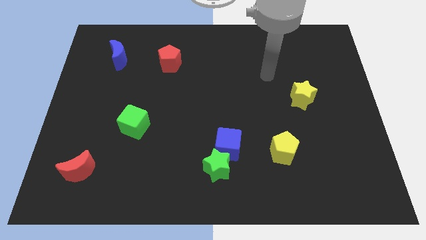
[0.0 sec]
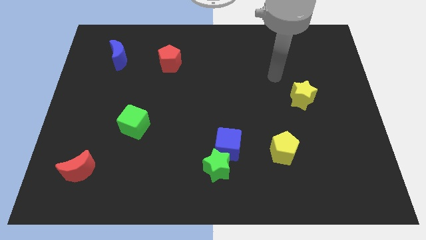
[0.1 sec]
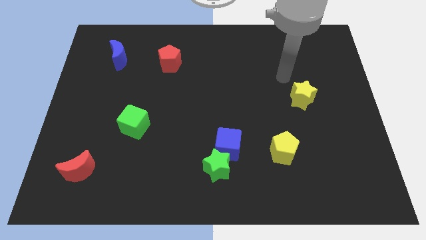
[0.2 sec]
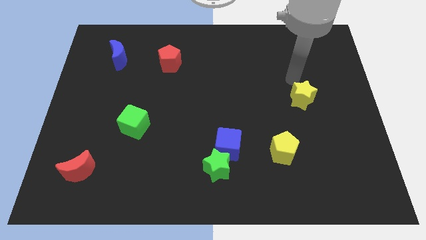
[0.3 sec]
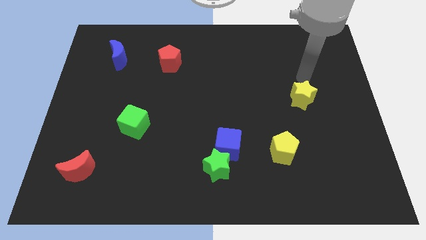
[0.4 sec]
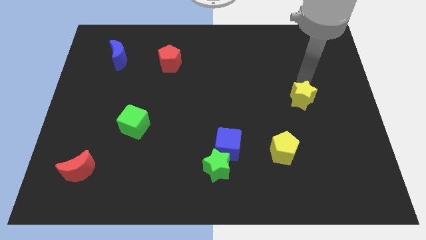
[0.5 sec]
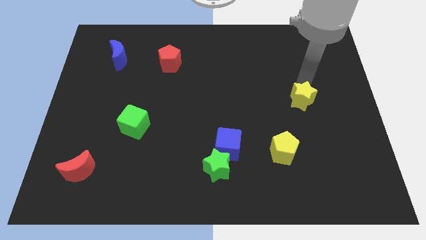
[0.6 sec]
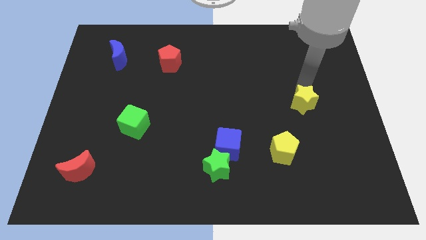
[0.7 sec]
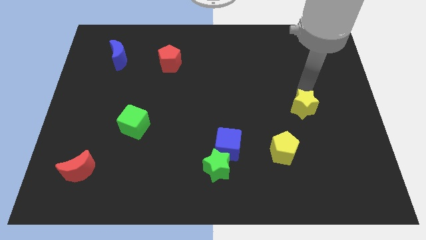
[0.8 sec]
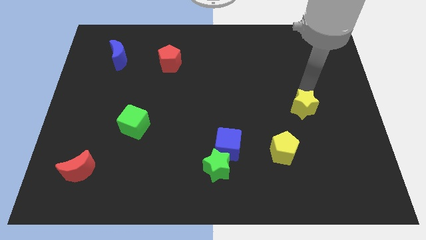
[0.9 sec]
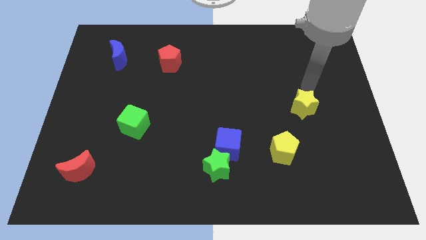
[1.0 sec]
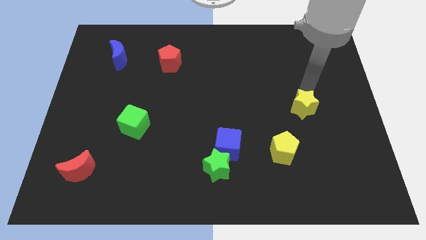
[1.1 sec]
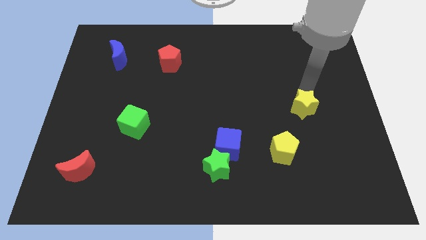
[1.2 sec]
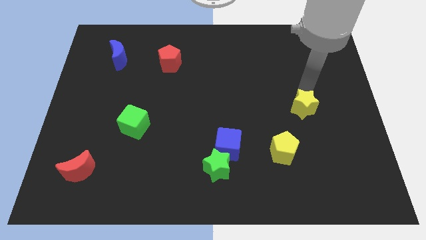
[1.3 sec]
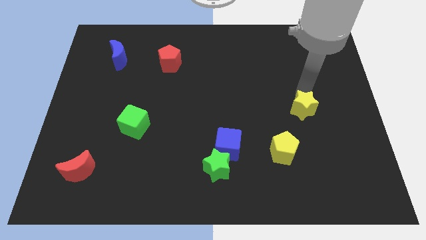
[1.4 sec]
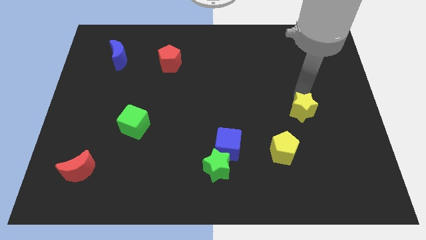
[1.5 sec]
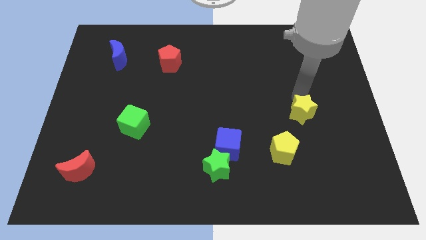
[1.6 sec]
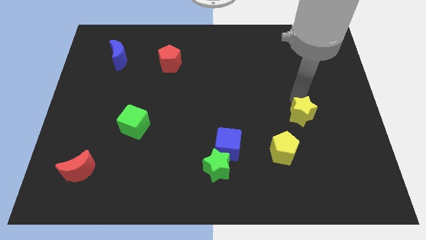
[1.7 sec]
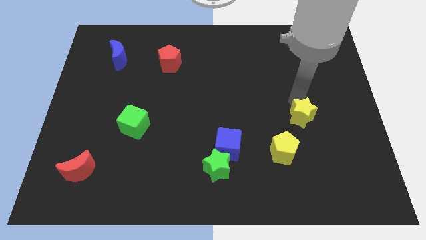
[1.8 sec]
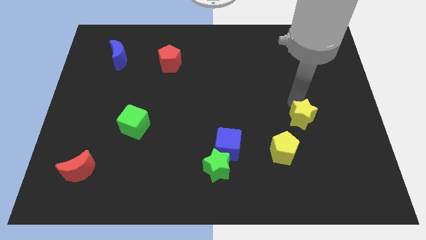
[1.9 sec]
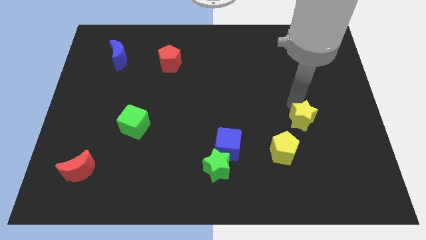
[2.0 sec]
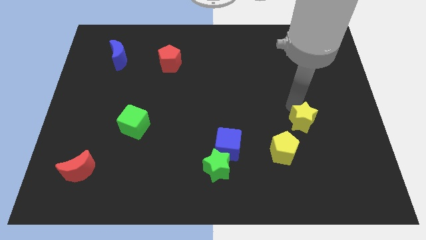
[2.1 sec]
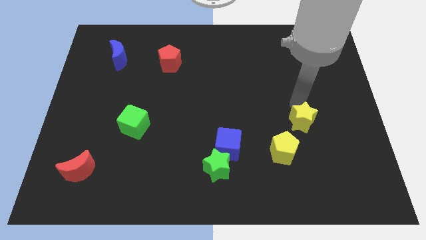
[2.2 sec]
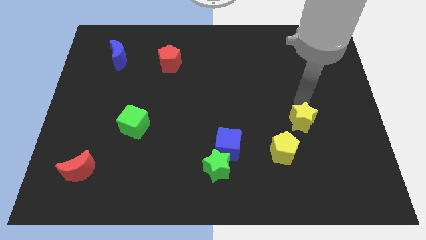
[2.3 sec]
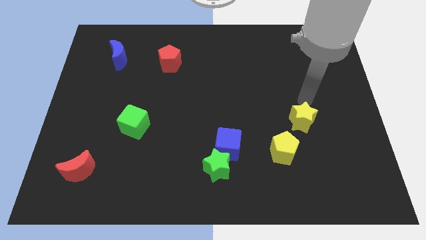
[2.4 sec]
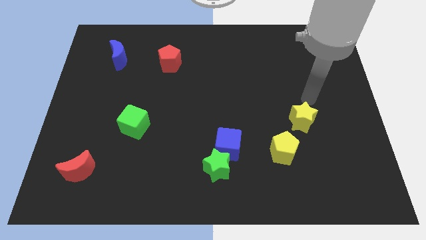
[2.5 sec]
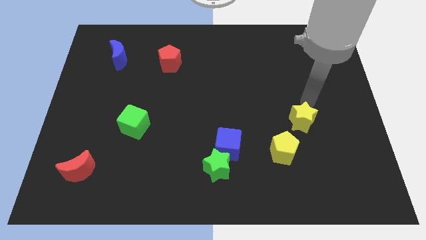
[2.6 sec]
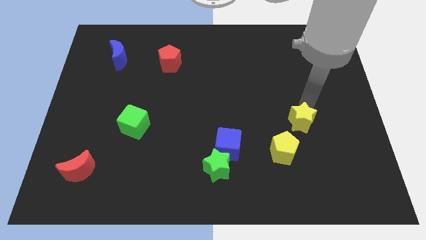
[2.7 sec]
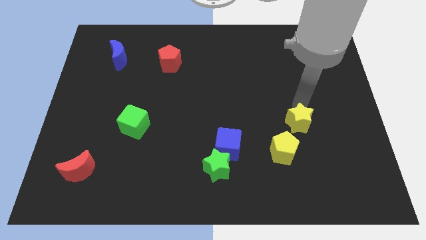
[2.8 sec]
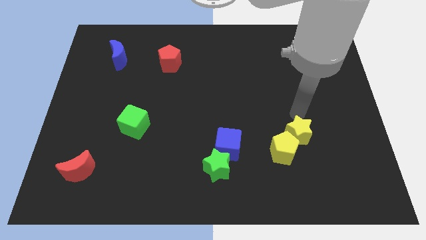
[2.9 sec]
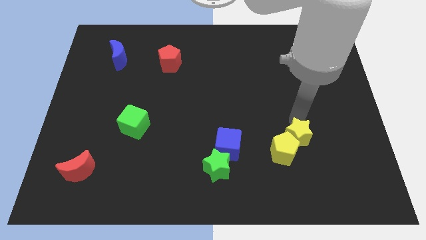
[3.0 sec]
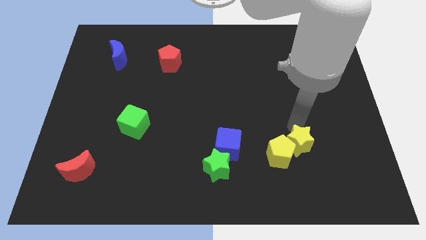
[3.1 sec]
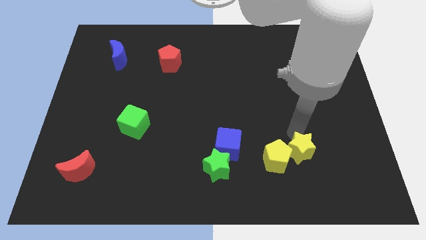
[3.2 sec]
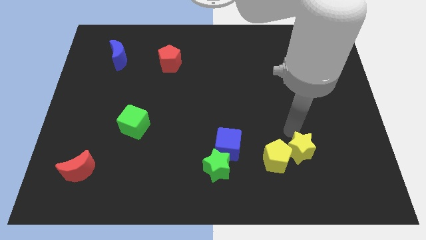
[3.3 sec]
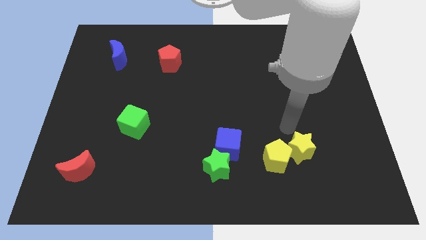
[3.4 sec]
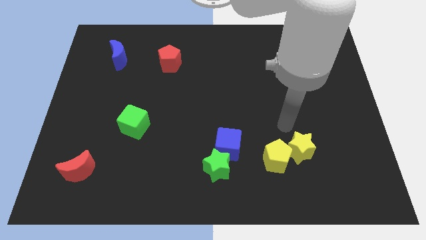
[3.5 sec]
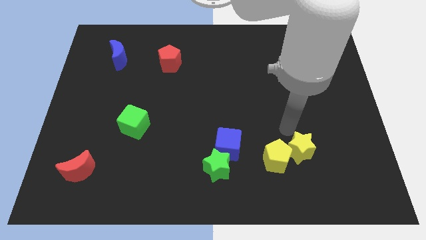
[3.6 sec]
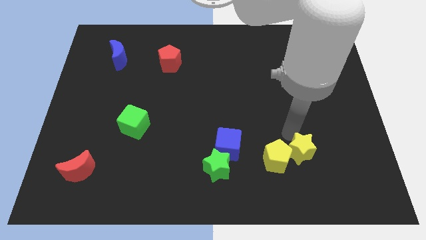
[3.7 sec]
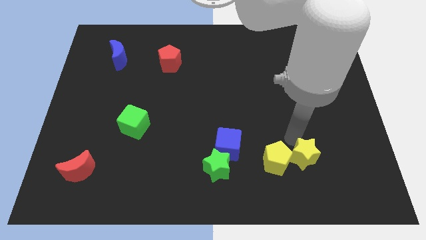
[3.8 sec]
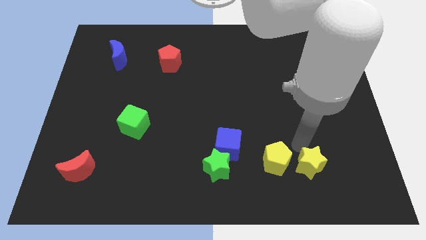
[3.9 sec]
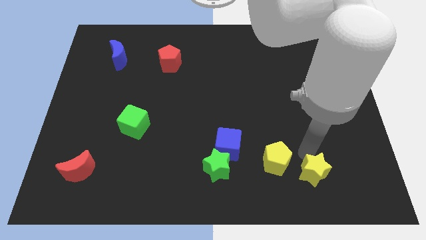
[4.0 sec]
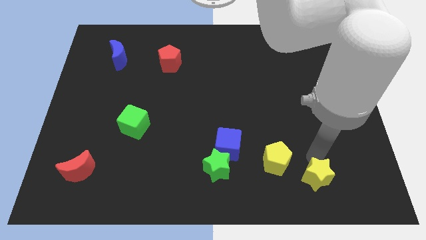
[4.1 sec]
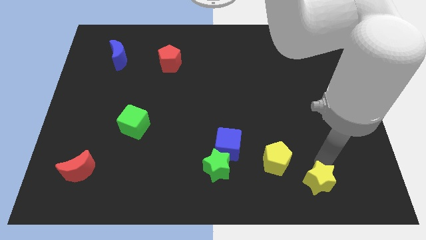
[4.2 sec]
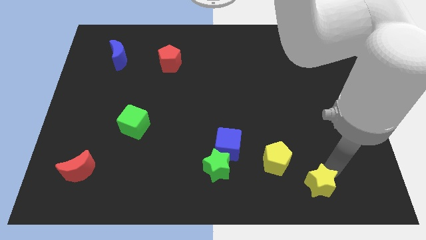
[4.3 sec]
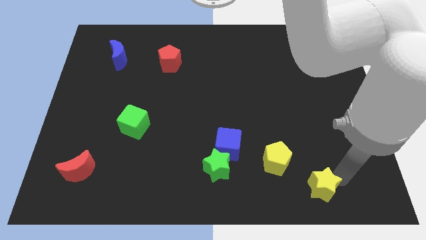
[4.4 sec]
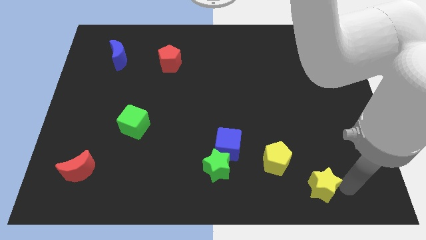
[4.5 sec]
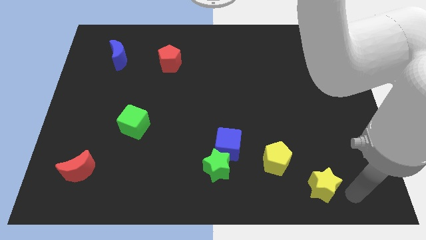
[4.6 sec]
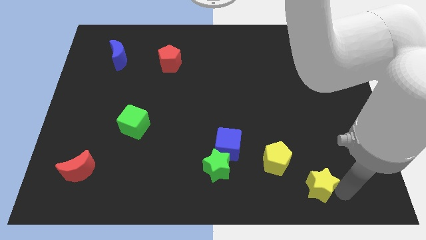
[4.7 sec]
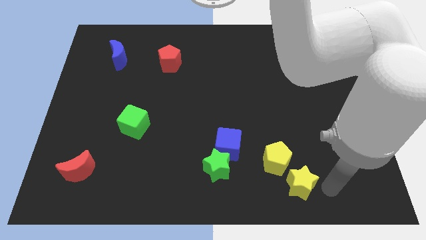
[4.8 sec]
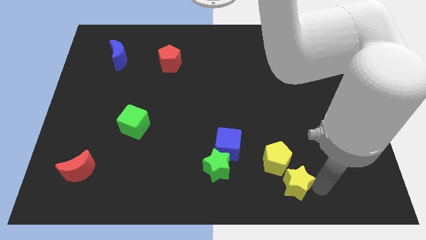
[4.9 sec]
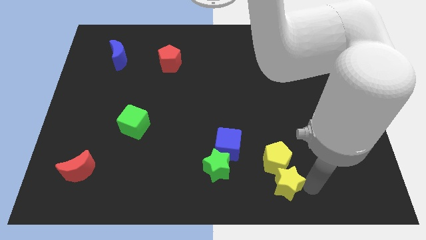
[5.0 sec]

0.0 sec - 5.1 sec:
push the yellow star to the right side of the green star

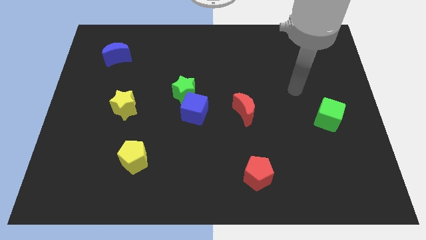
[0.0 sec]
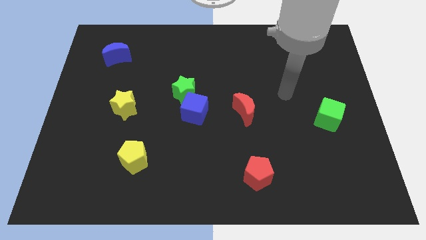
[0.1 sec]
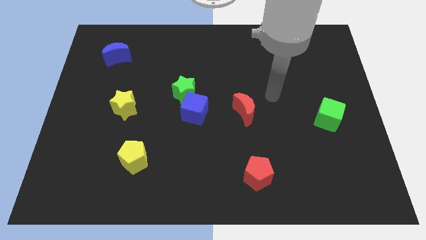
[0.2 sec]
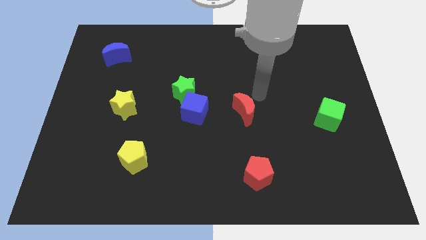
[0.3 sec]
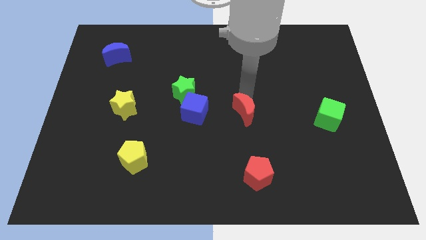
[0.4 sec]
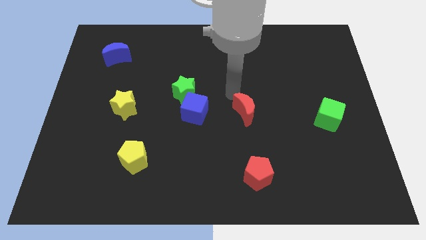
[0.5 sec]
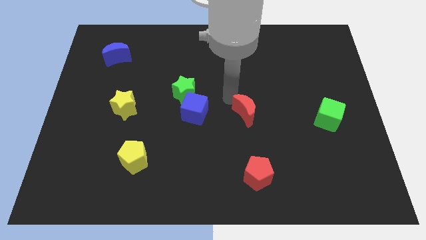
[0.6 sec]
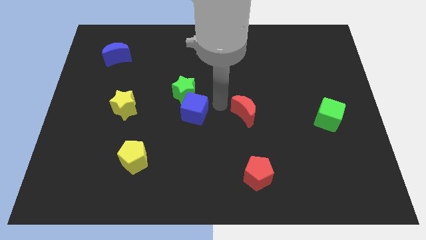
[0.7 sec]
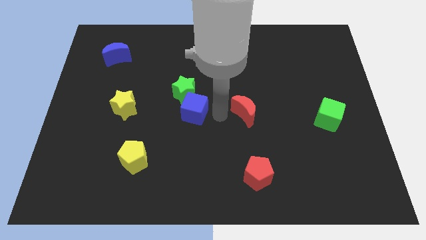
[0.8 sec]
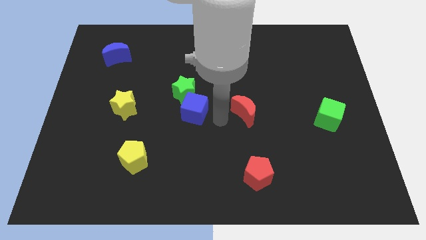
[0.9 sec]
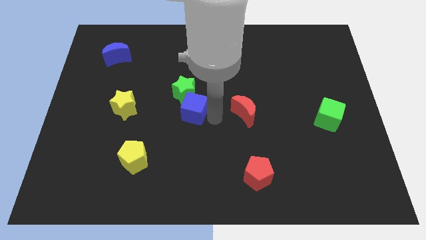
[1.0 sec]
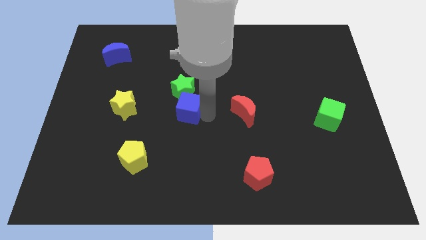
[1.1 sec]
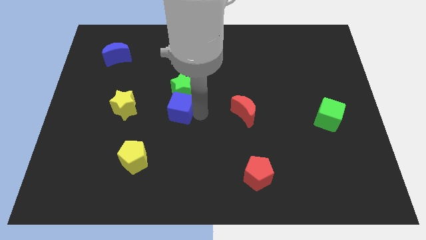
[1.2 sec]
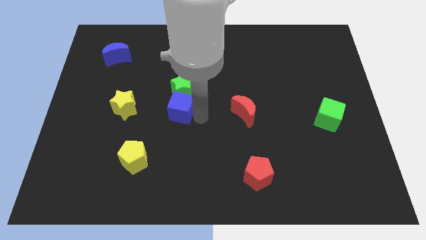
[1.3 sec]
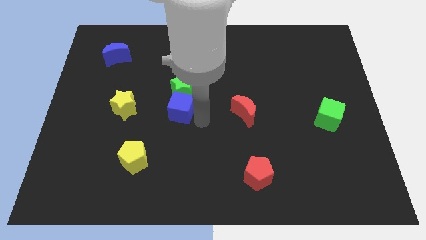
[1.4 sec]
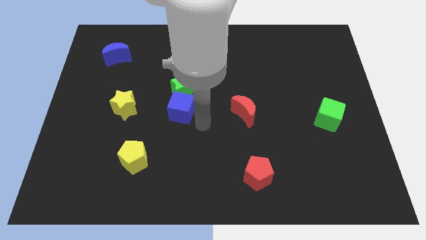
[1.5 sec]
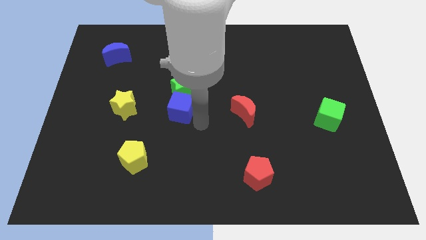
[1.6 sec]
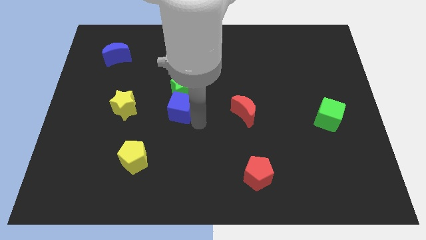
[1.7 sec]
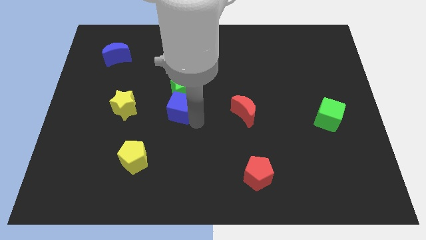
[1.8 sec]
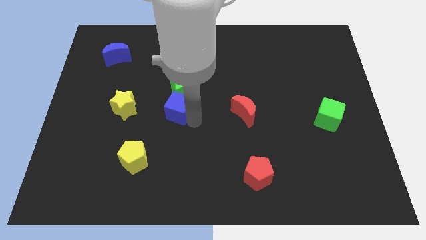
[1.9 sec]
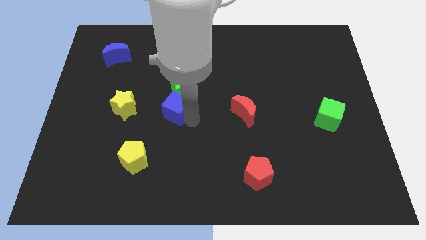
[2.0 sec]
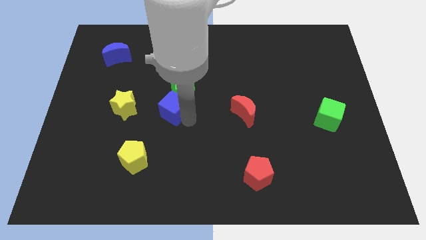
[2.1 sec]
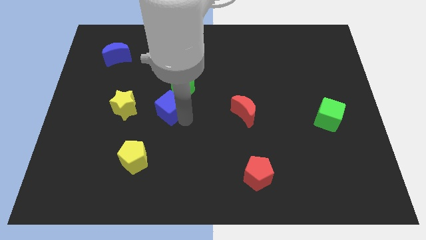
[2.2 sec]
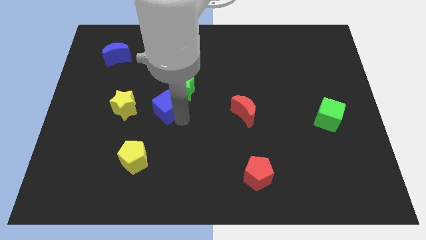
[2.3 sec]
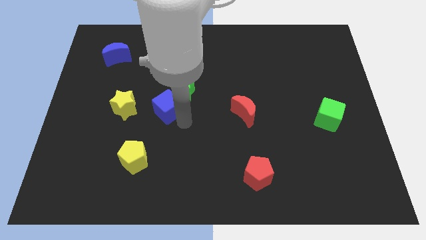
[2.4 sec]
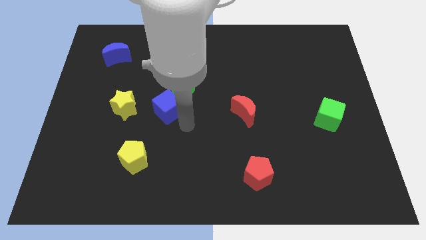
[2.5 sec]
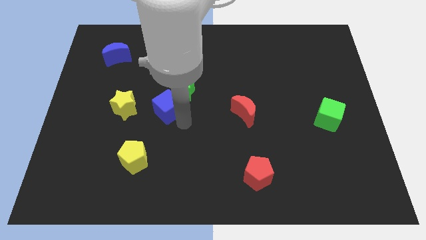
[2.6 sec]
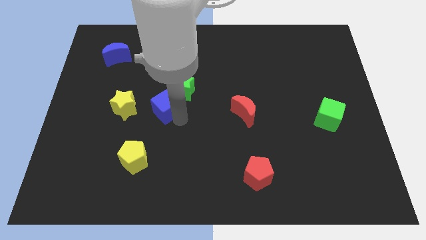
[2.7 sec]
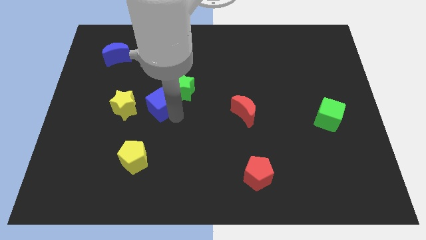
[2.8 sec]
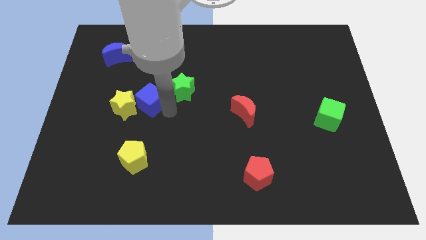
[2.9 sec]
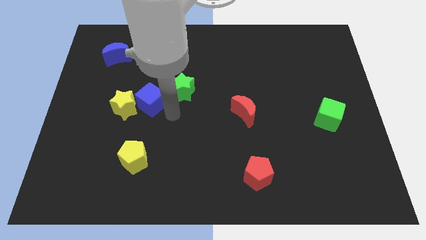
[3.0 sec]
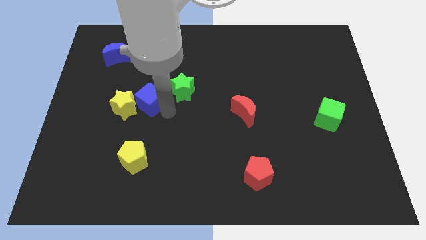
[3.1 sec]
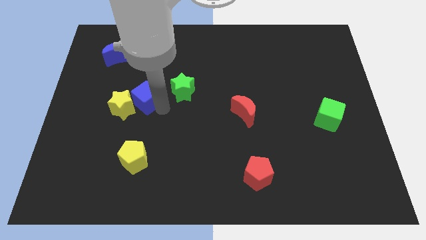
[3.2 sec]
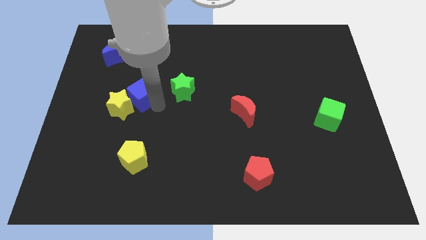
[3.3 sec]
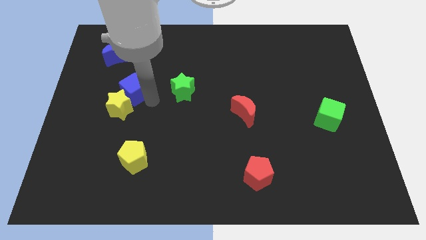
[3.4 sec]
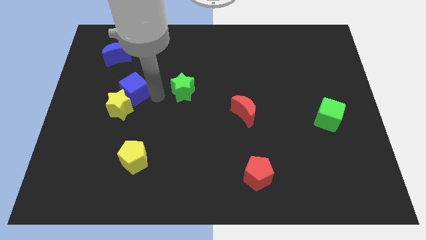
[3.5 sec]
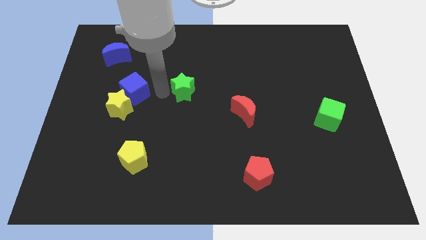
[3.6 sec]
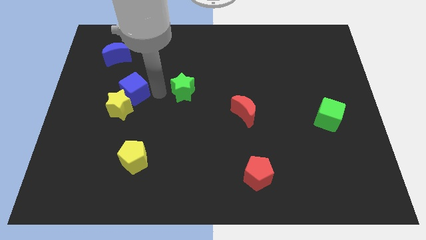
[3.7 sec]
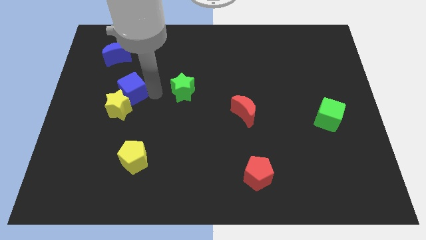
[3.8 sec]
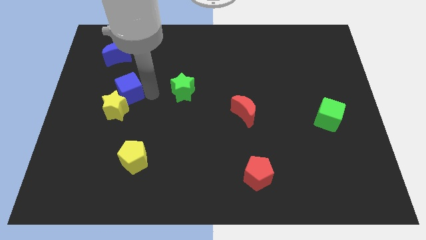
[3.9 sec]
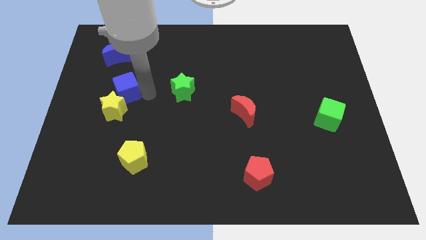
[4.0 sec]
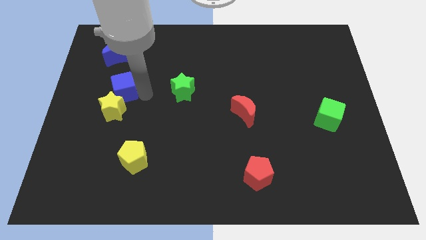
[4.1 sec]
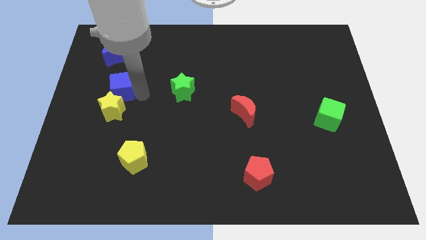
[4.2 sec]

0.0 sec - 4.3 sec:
push the blue cube diagonally up and to the left of the yellow star
